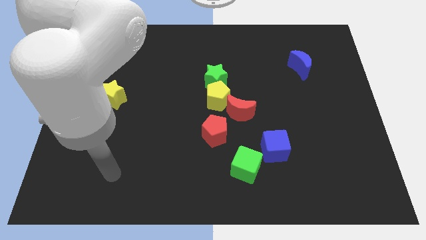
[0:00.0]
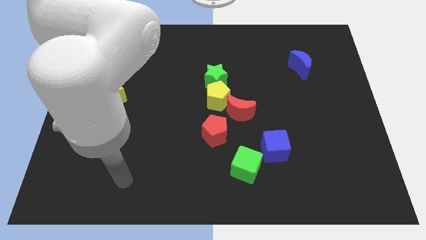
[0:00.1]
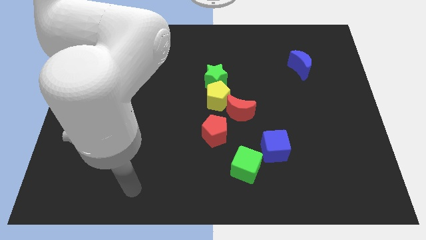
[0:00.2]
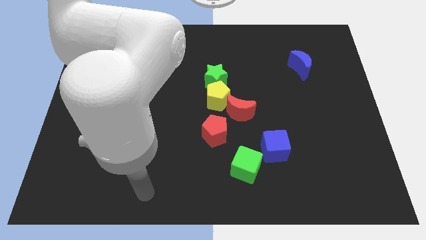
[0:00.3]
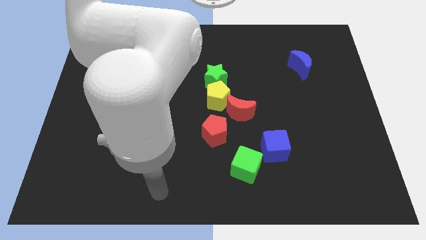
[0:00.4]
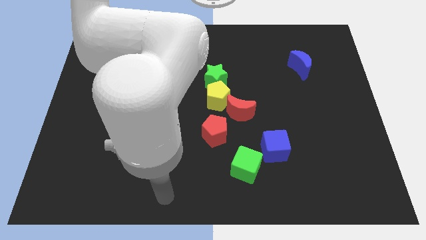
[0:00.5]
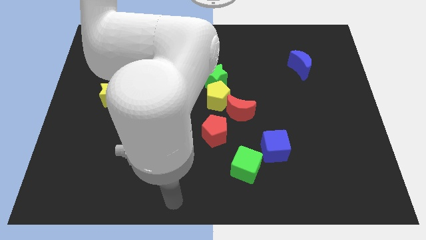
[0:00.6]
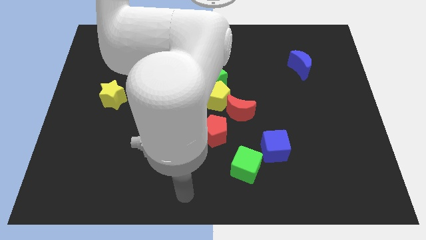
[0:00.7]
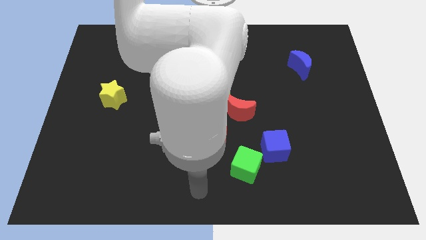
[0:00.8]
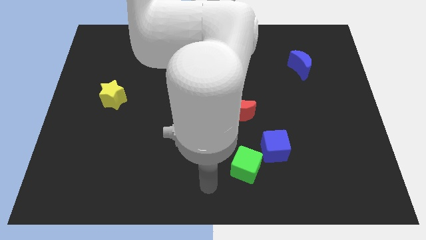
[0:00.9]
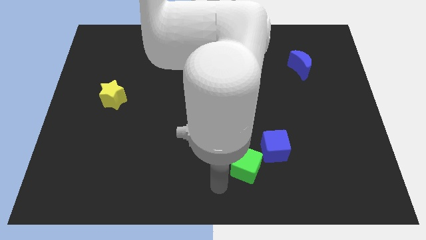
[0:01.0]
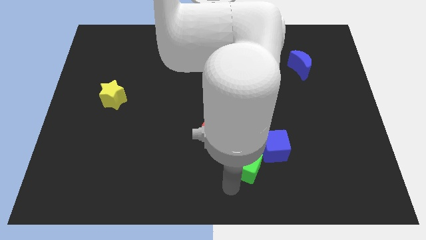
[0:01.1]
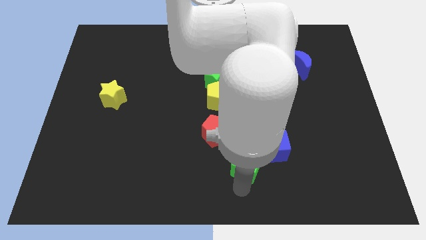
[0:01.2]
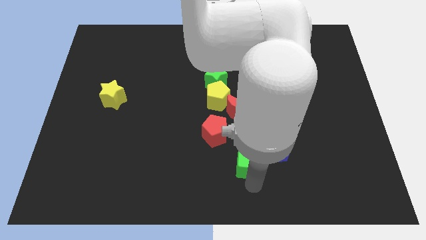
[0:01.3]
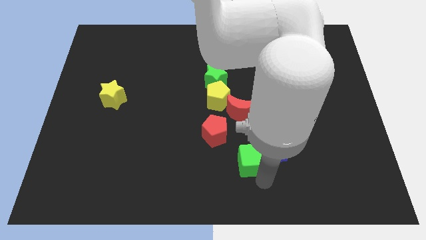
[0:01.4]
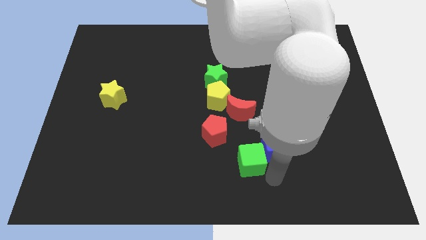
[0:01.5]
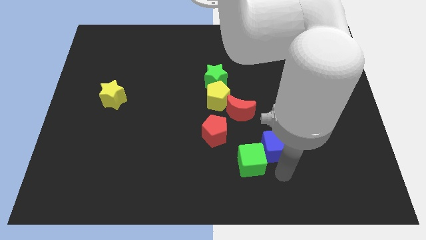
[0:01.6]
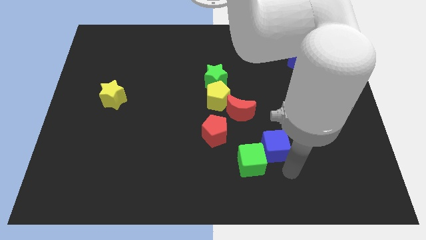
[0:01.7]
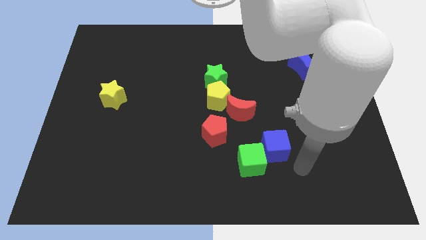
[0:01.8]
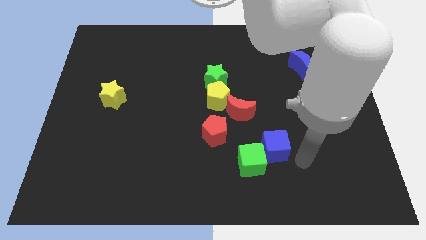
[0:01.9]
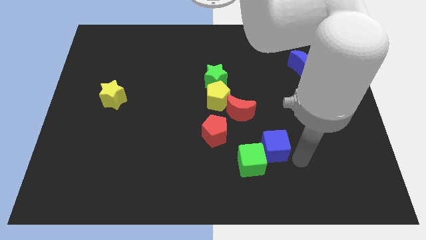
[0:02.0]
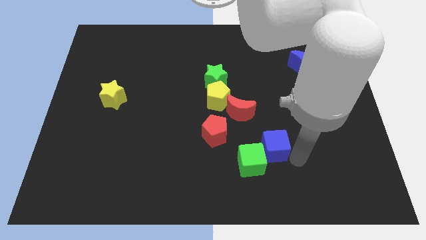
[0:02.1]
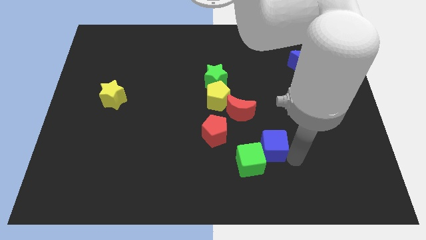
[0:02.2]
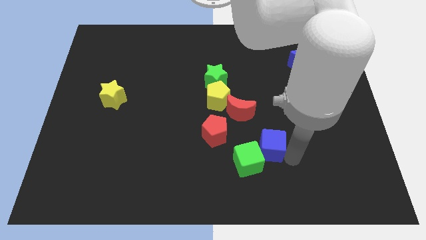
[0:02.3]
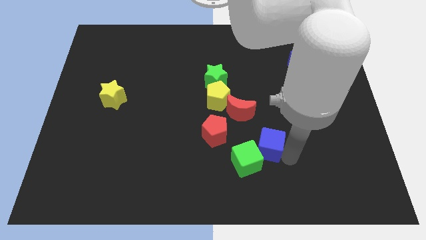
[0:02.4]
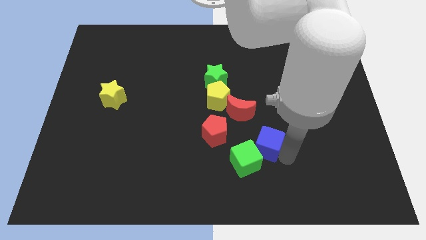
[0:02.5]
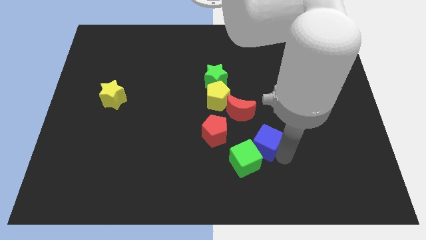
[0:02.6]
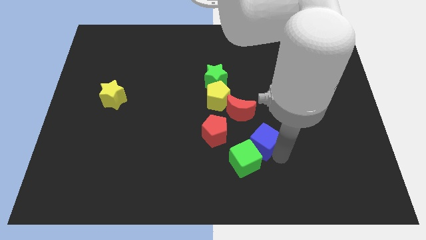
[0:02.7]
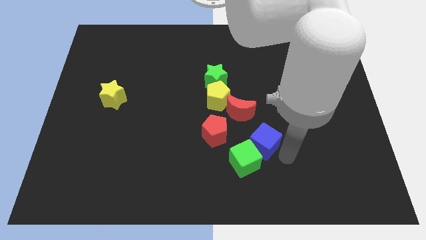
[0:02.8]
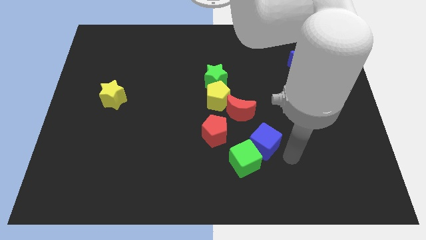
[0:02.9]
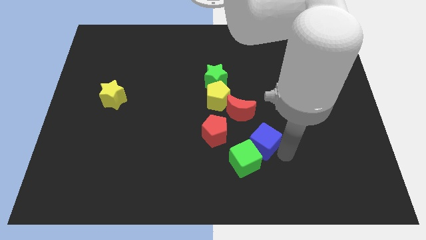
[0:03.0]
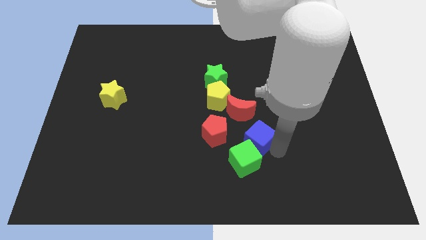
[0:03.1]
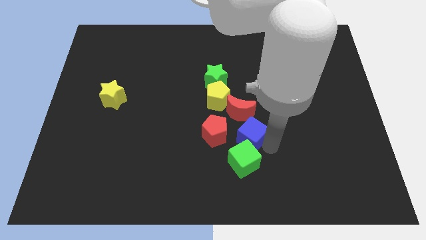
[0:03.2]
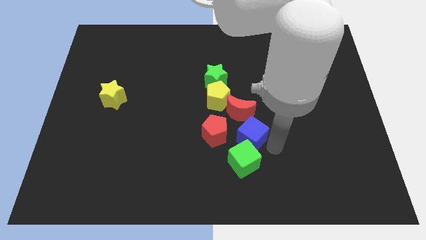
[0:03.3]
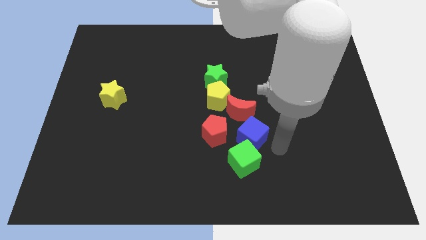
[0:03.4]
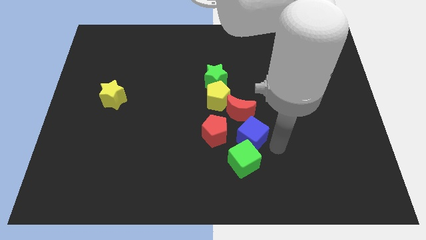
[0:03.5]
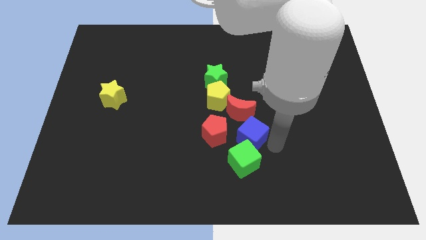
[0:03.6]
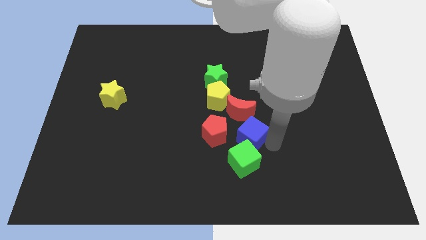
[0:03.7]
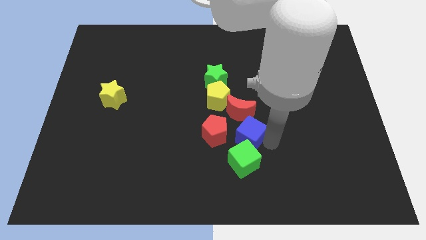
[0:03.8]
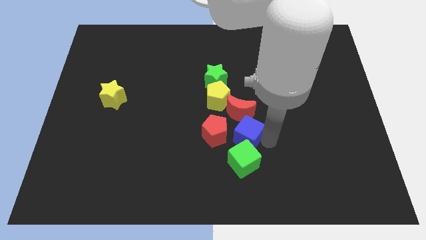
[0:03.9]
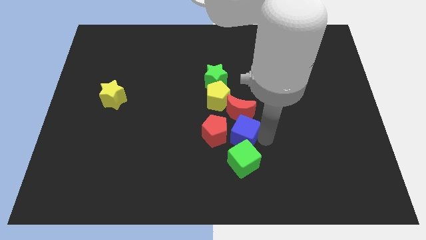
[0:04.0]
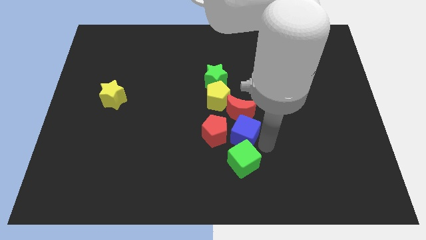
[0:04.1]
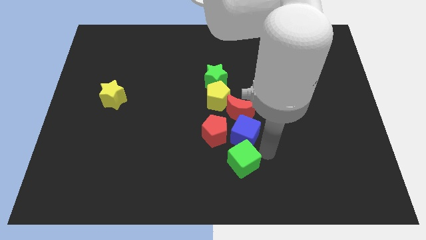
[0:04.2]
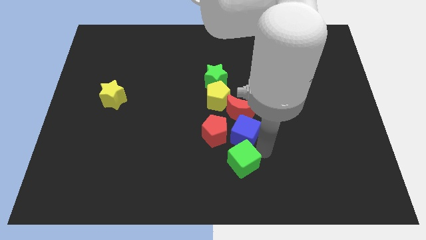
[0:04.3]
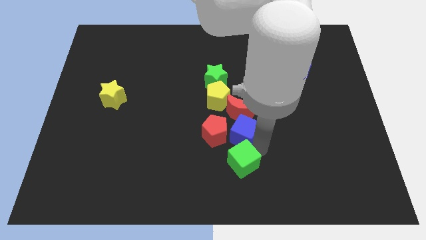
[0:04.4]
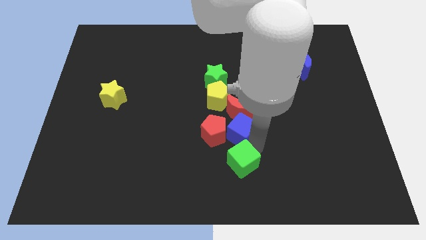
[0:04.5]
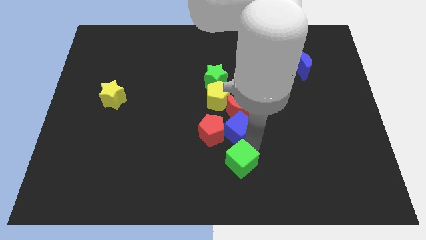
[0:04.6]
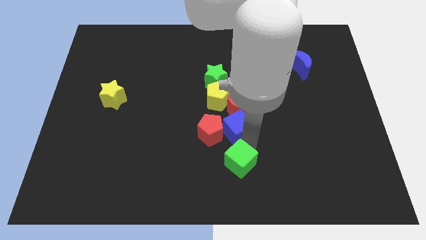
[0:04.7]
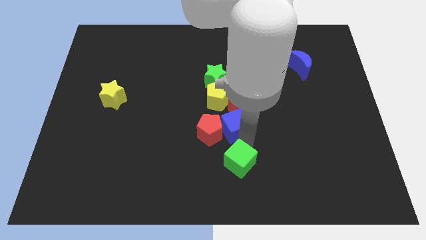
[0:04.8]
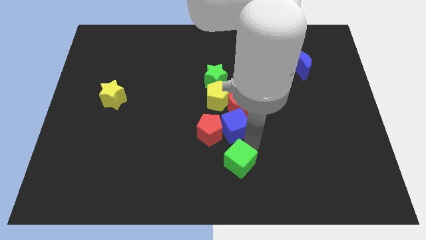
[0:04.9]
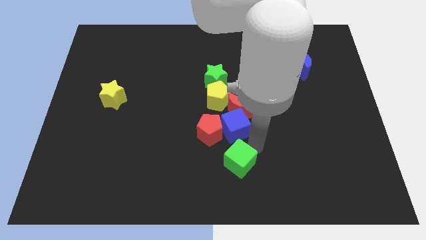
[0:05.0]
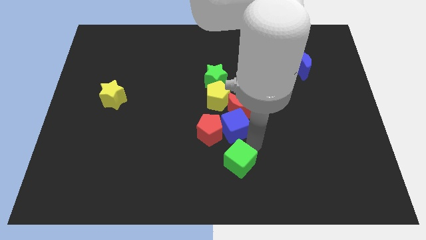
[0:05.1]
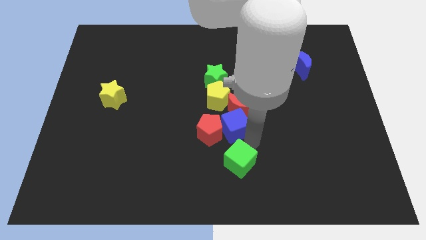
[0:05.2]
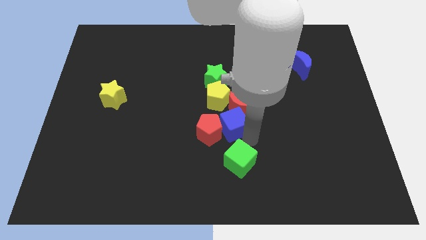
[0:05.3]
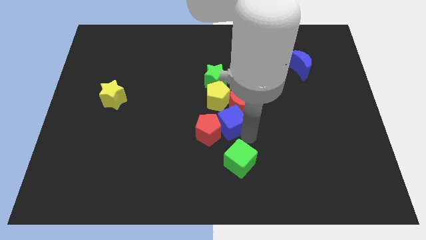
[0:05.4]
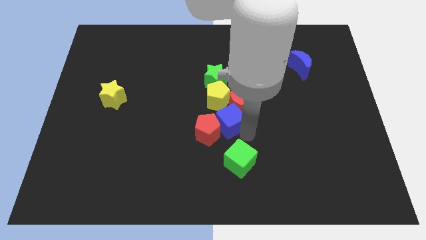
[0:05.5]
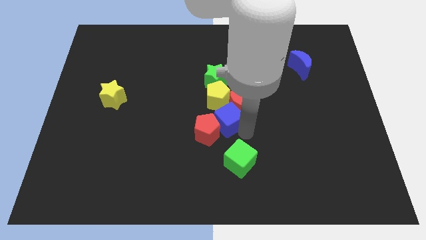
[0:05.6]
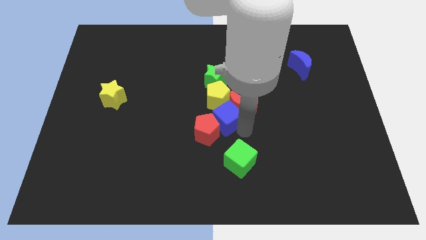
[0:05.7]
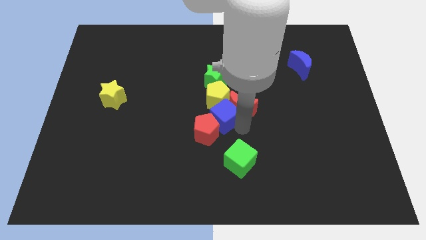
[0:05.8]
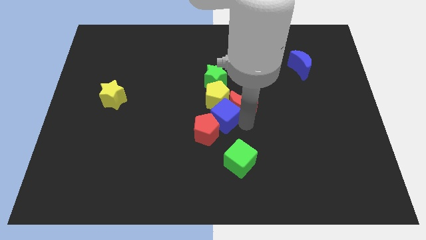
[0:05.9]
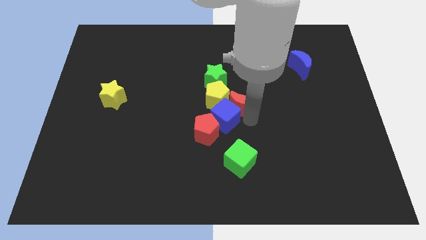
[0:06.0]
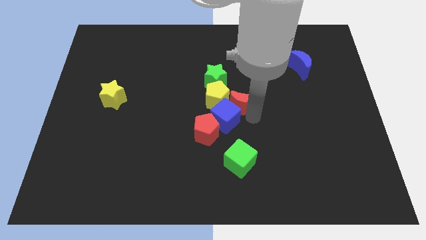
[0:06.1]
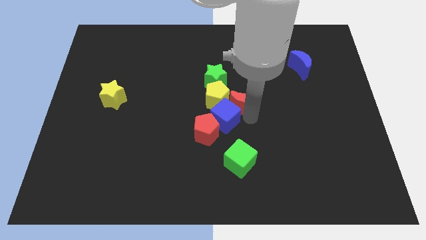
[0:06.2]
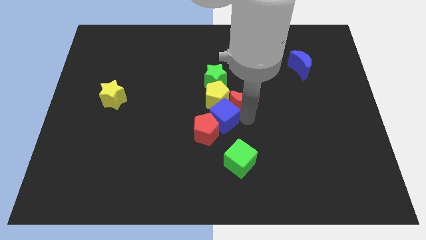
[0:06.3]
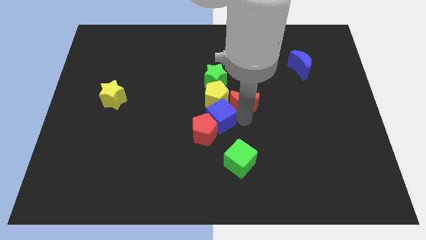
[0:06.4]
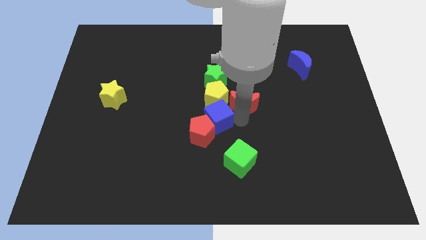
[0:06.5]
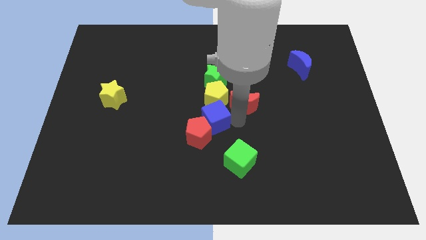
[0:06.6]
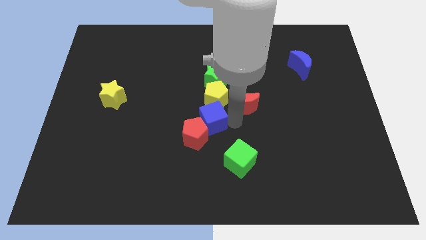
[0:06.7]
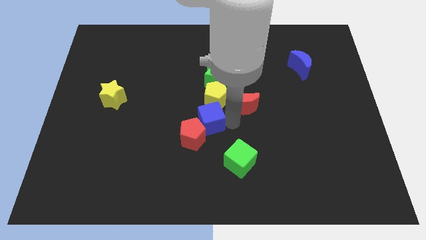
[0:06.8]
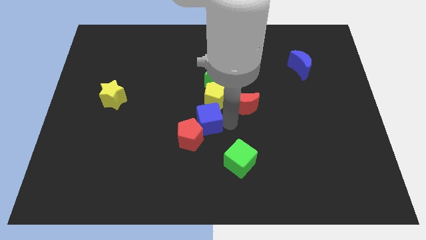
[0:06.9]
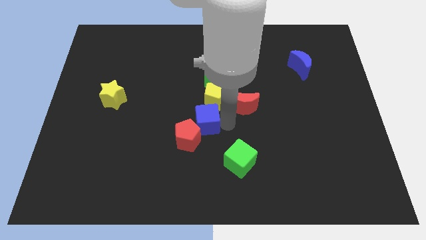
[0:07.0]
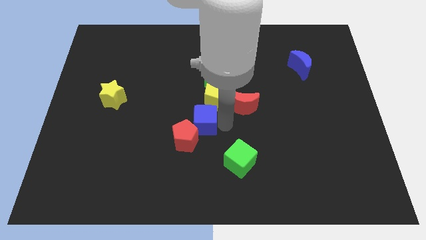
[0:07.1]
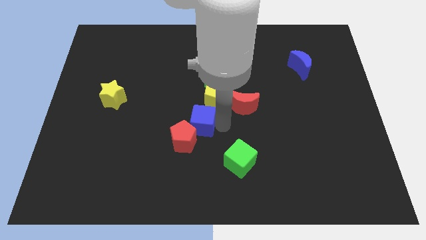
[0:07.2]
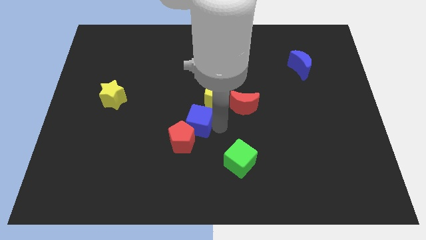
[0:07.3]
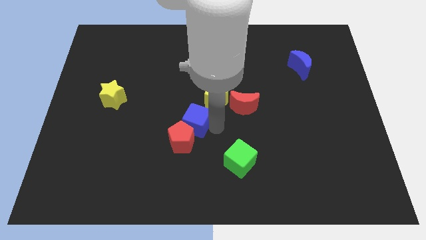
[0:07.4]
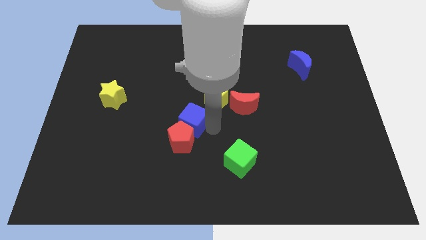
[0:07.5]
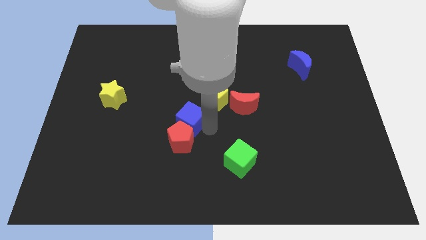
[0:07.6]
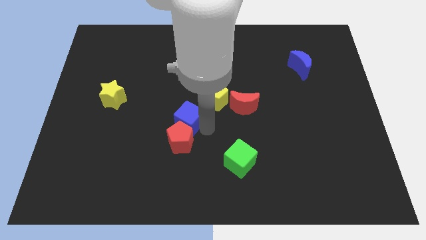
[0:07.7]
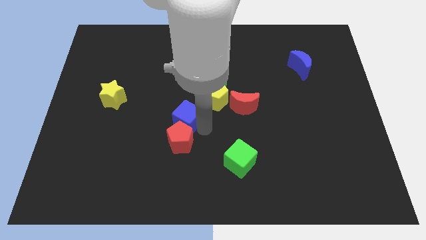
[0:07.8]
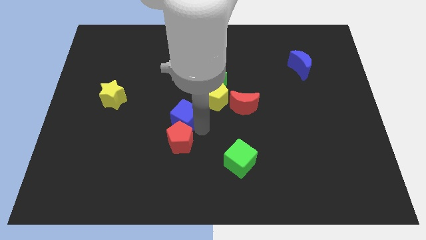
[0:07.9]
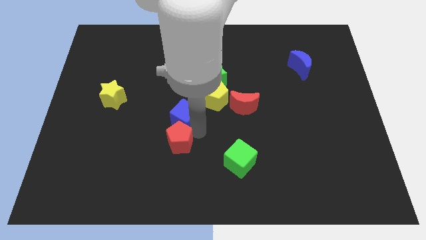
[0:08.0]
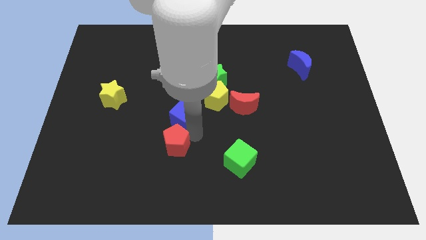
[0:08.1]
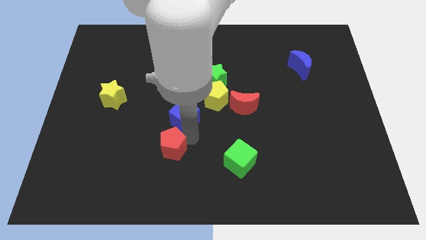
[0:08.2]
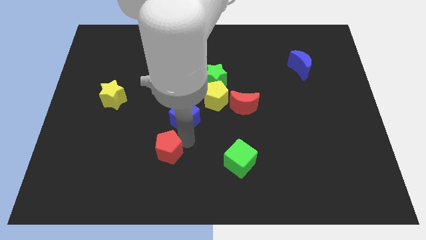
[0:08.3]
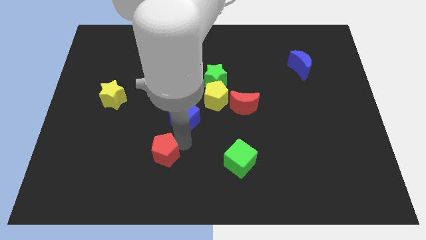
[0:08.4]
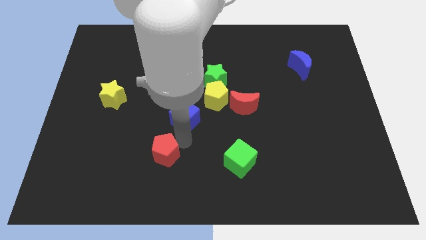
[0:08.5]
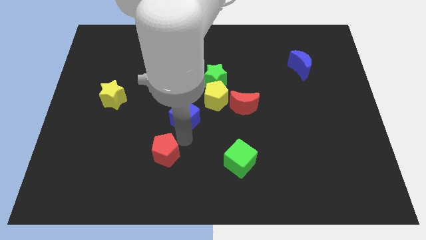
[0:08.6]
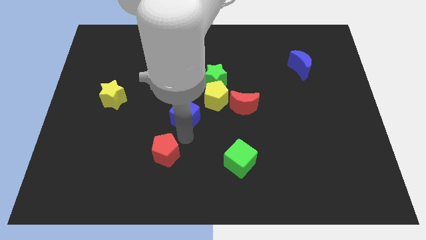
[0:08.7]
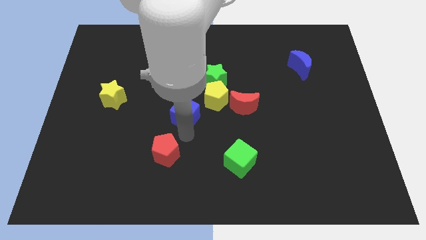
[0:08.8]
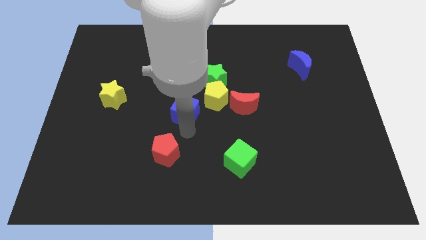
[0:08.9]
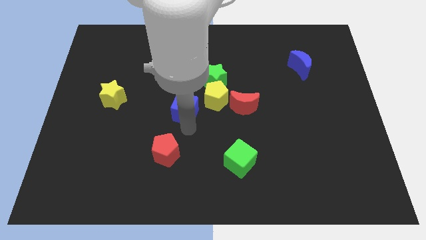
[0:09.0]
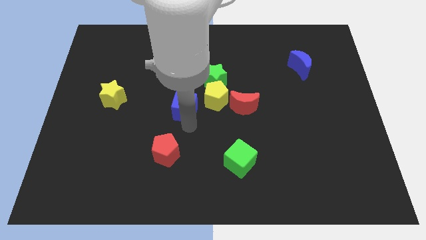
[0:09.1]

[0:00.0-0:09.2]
move the blue cube up and left
